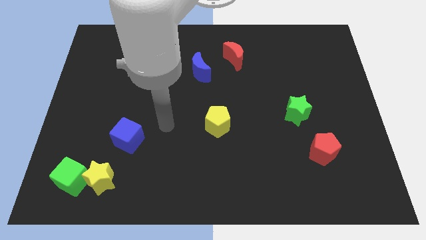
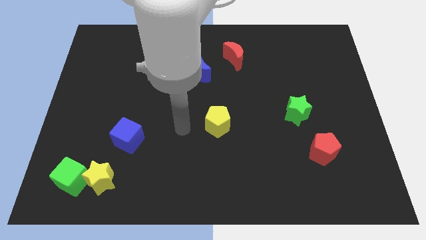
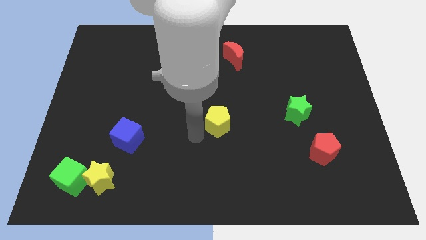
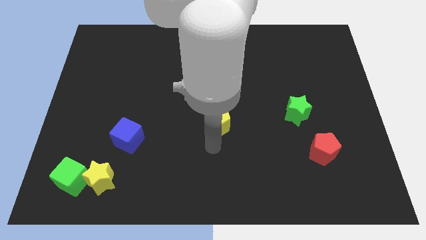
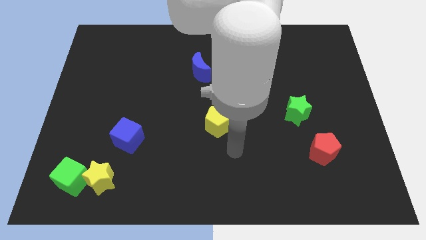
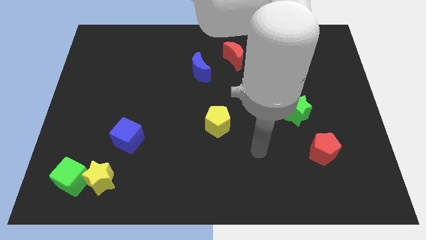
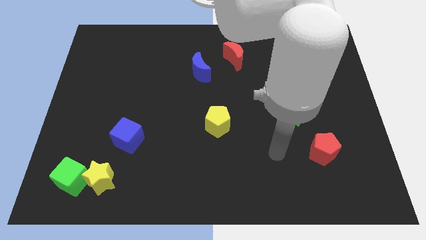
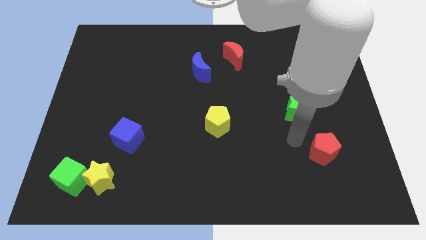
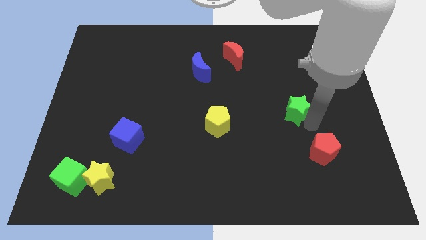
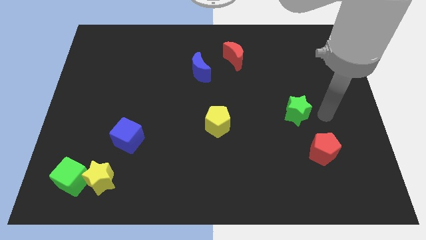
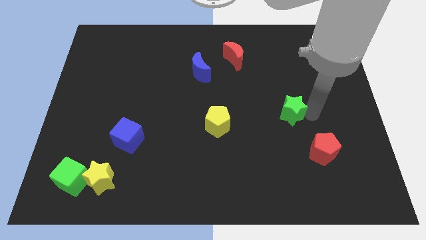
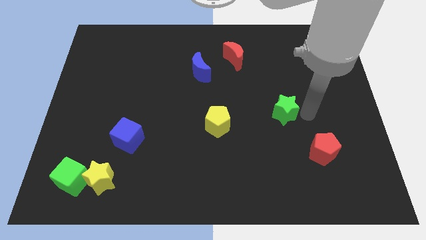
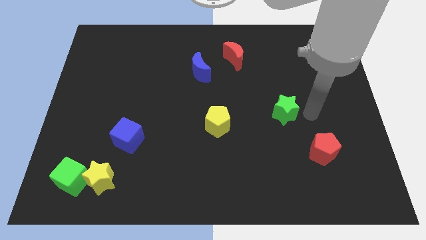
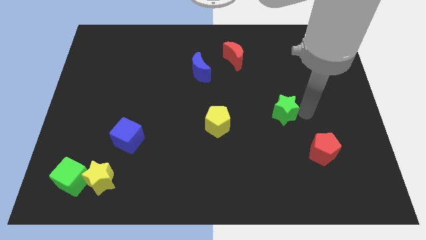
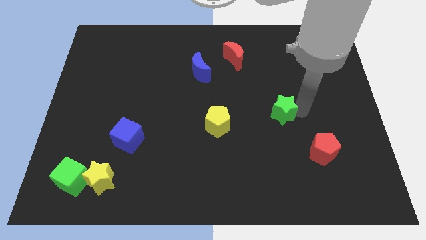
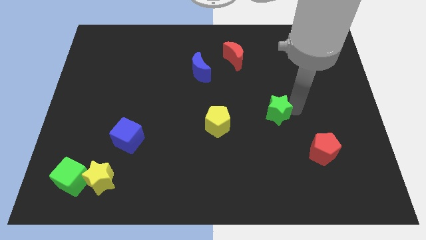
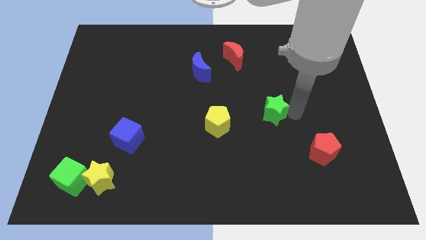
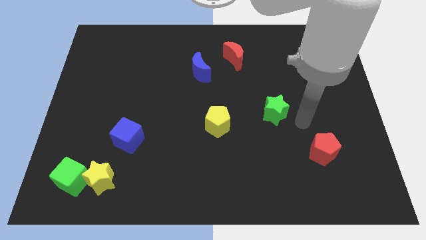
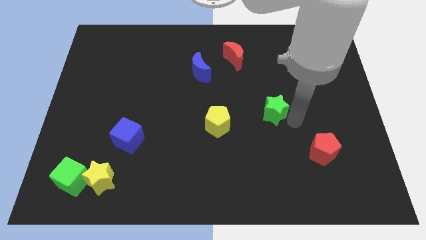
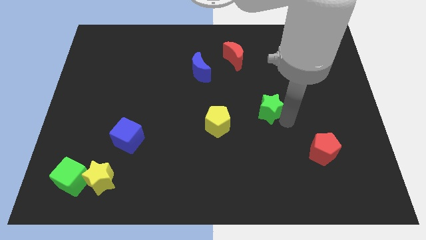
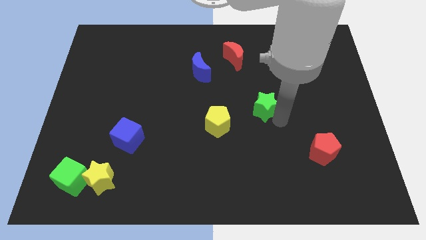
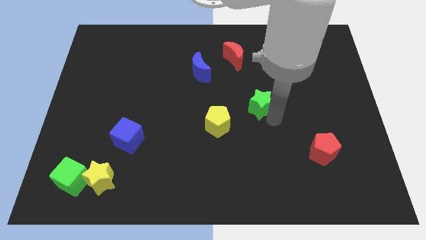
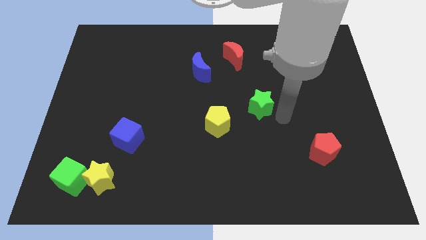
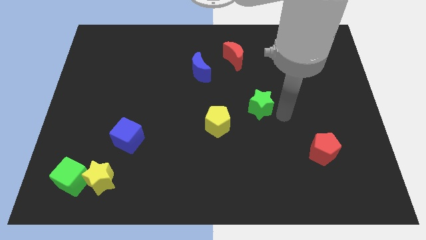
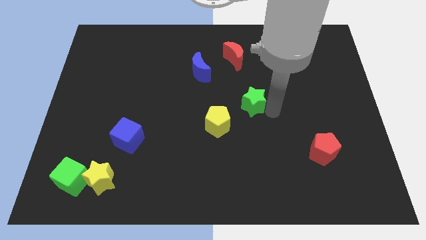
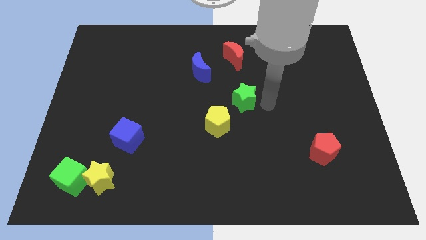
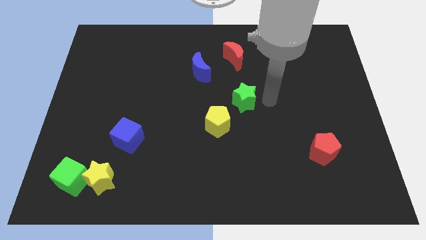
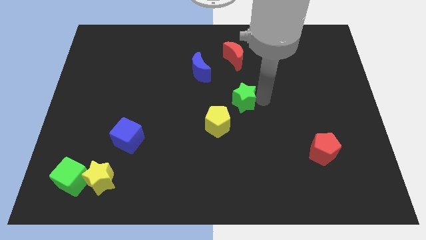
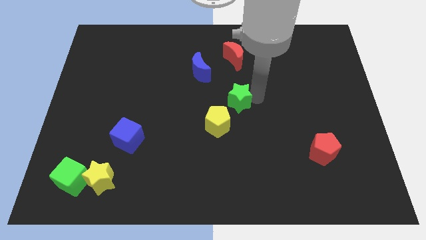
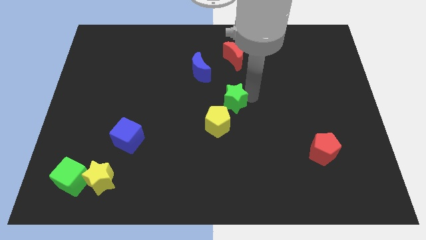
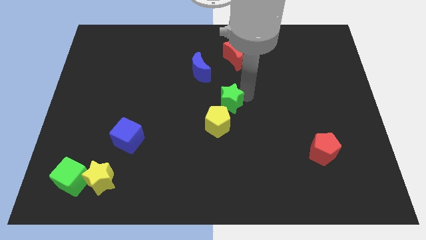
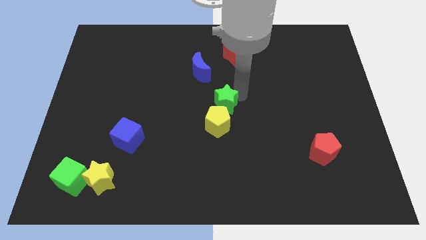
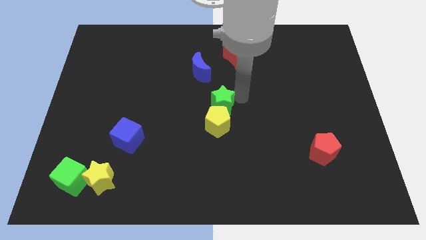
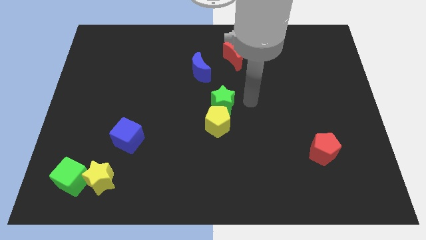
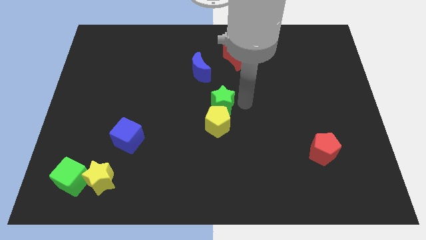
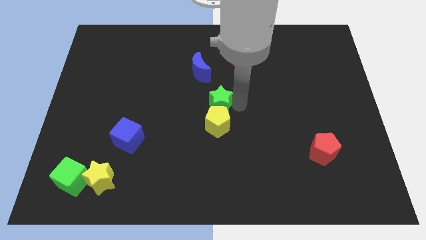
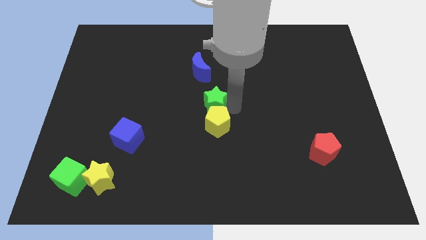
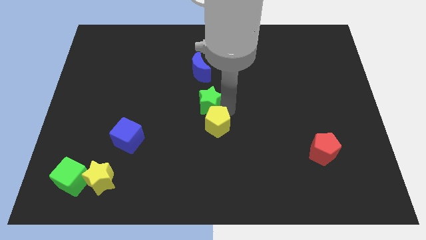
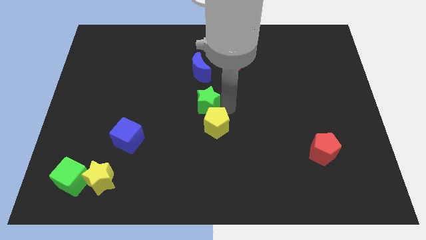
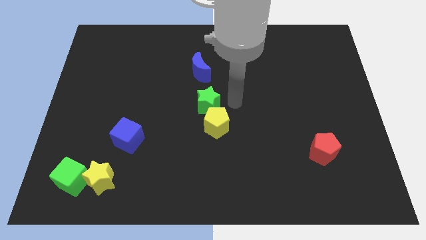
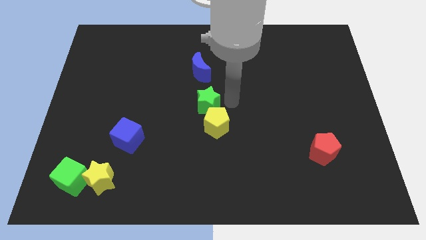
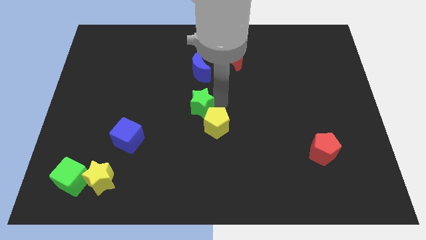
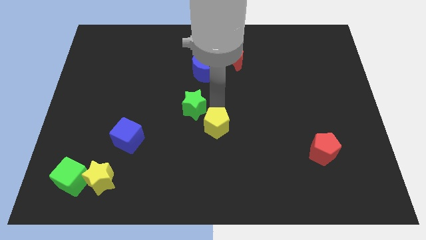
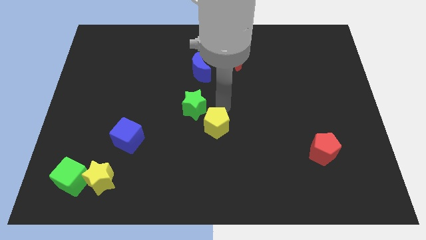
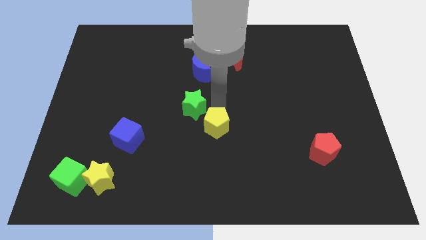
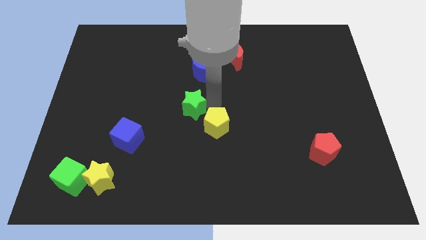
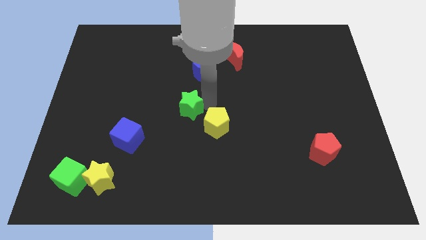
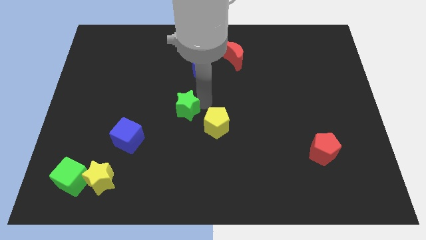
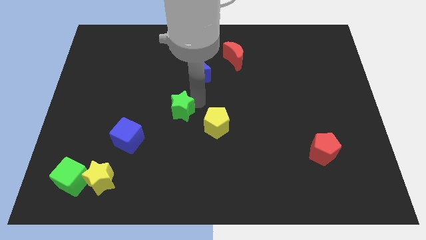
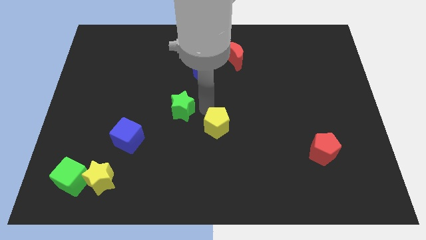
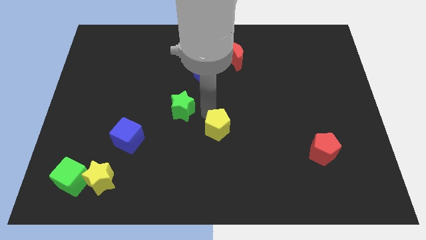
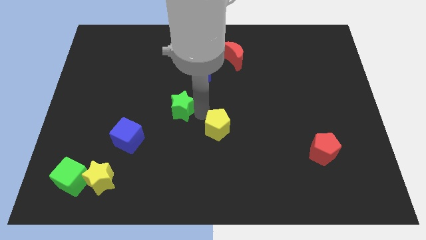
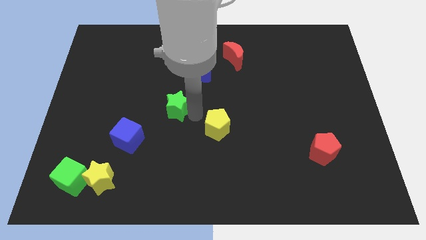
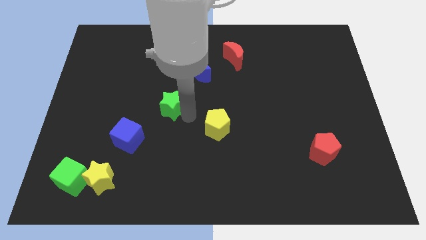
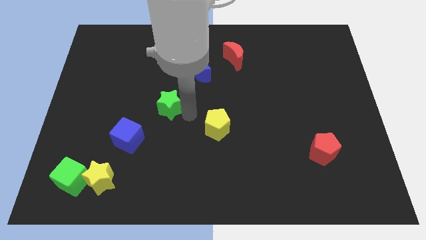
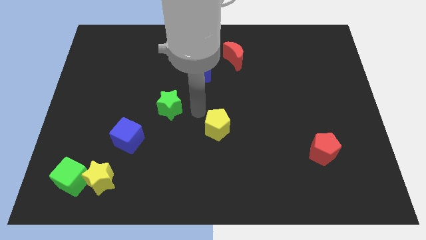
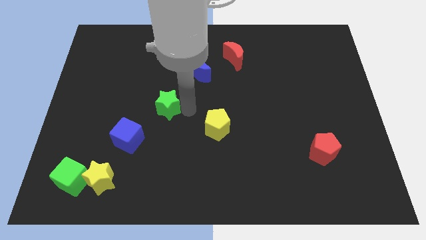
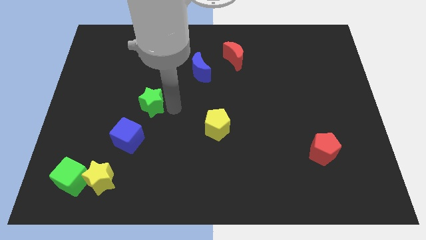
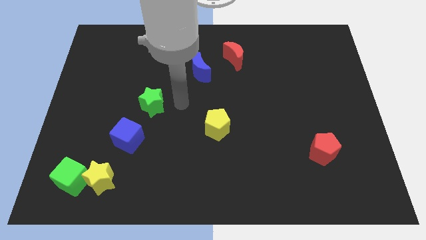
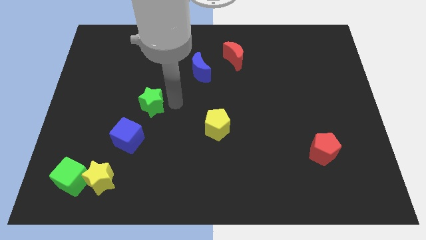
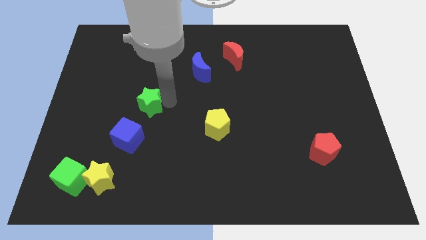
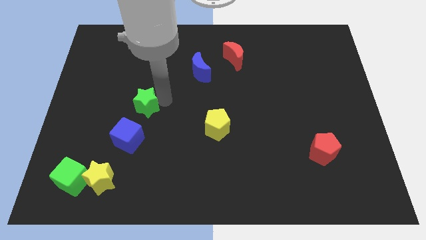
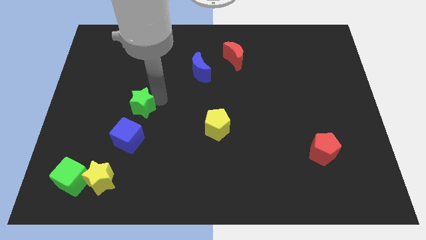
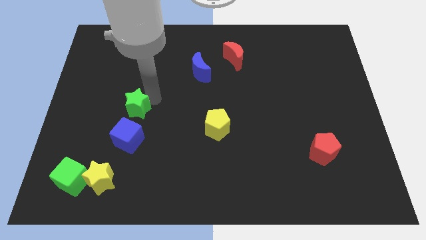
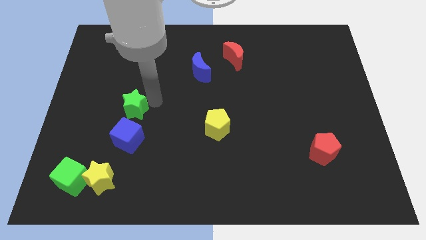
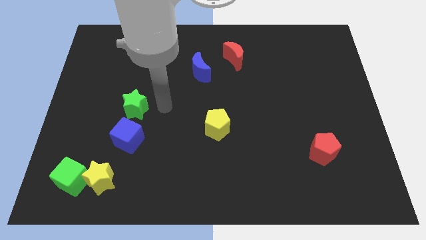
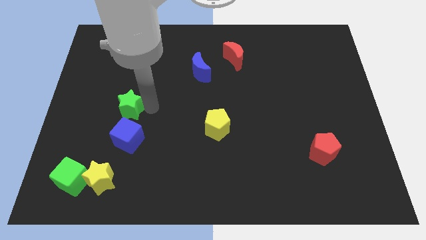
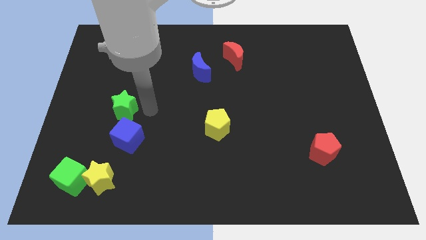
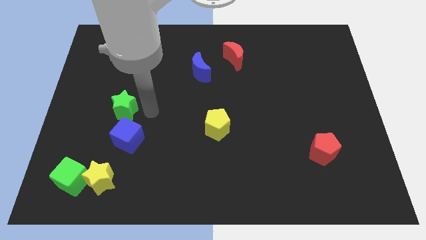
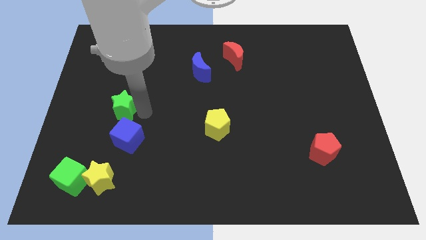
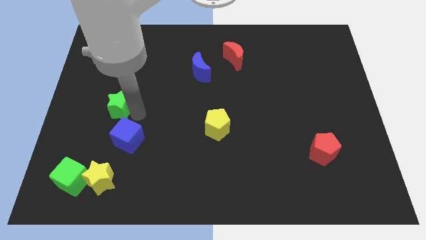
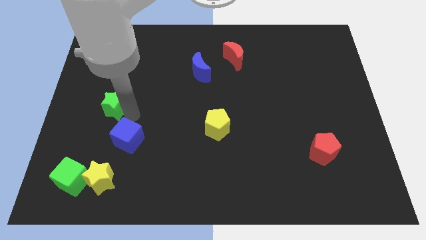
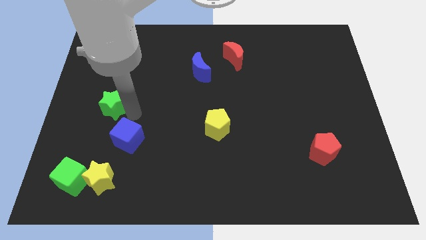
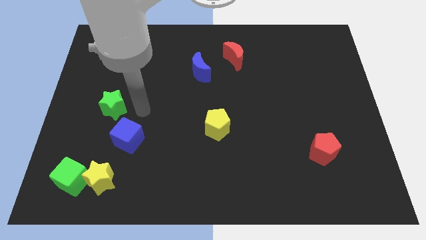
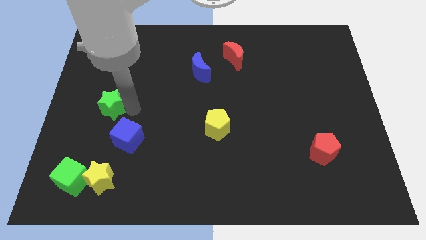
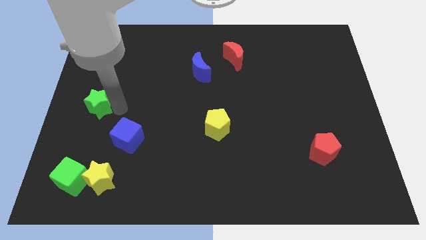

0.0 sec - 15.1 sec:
push the green star to the left side of the board
